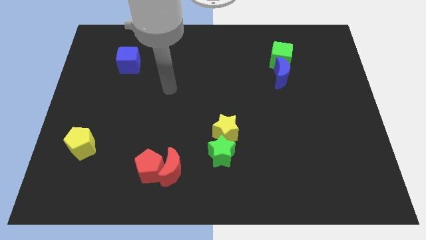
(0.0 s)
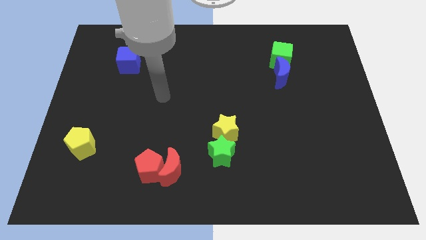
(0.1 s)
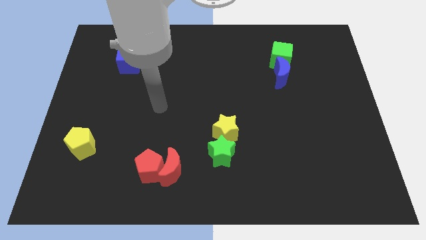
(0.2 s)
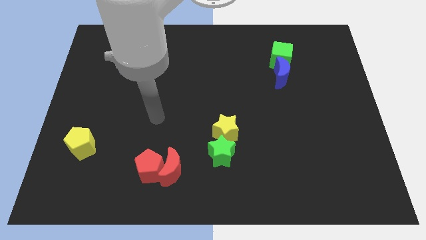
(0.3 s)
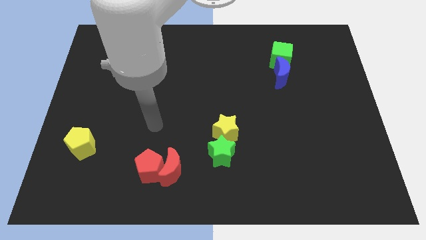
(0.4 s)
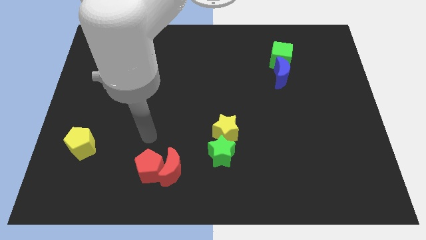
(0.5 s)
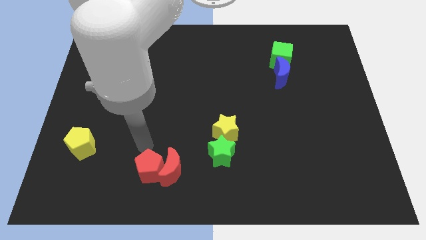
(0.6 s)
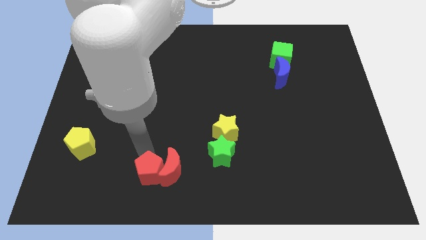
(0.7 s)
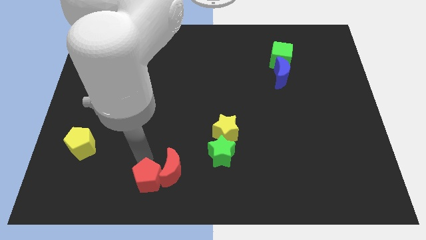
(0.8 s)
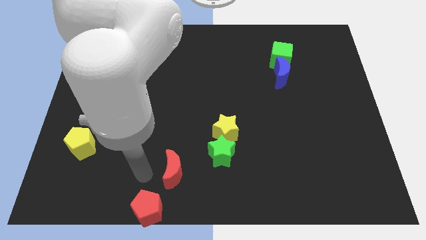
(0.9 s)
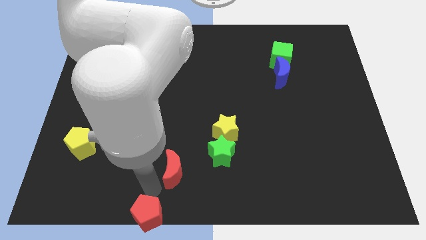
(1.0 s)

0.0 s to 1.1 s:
separate the red moon from the red pentagon

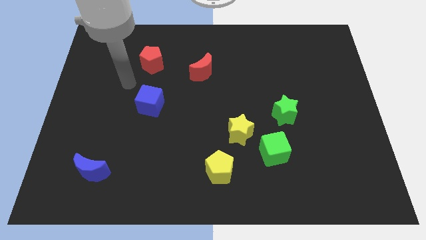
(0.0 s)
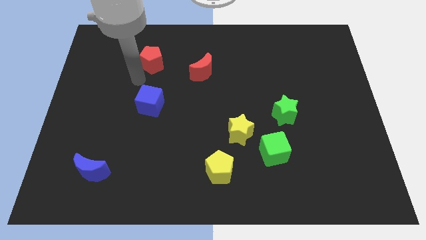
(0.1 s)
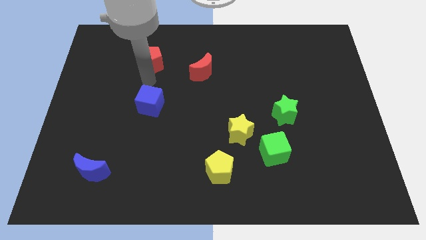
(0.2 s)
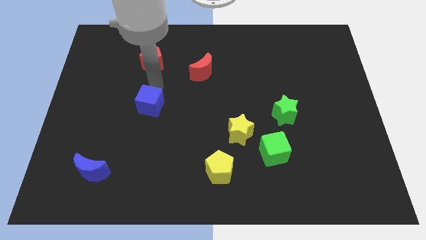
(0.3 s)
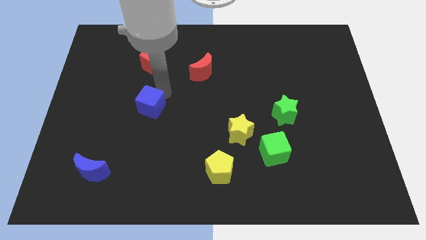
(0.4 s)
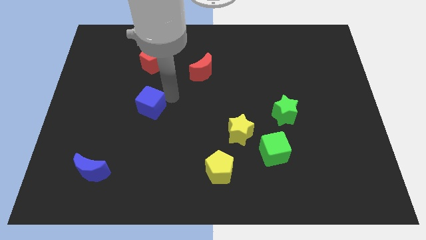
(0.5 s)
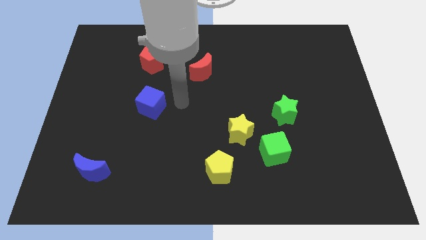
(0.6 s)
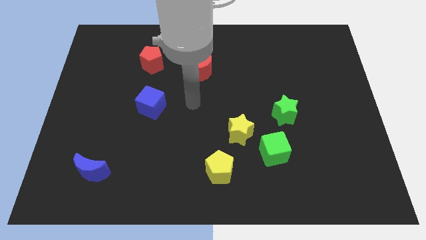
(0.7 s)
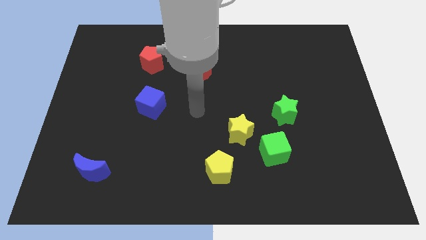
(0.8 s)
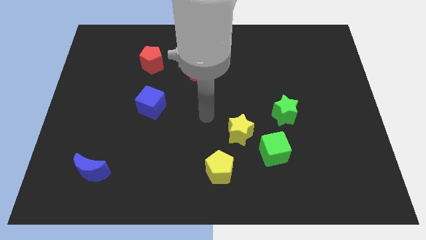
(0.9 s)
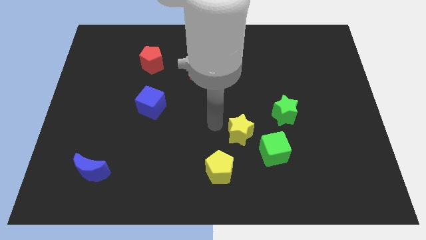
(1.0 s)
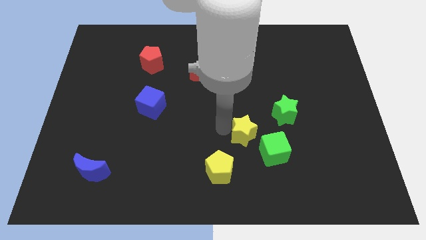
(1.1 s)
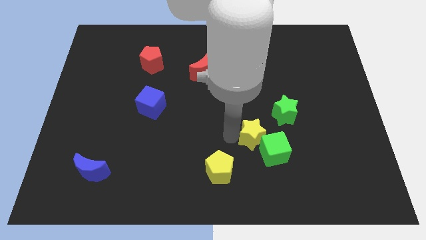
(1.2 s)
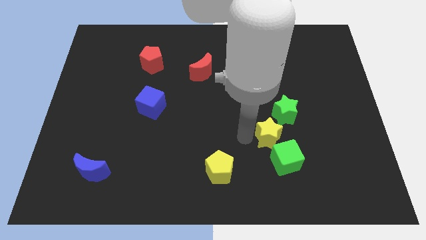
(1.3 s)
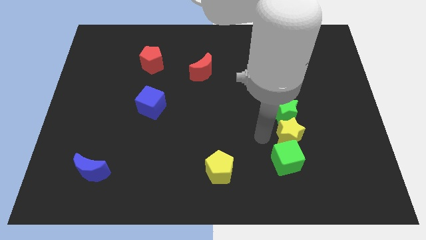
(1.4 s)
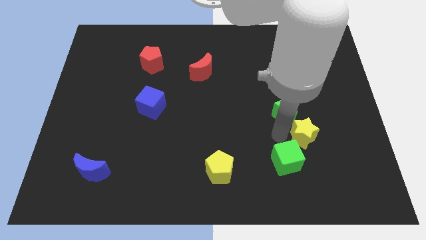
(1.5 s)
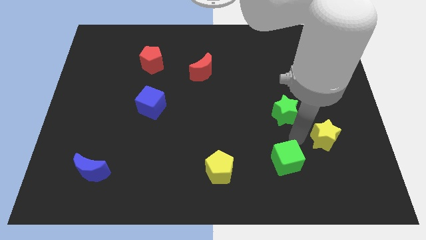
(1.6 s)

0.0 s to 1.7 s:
separate the green cube from the yellow star

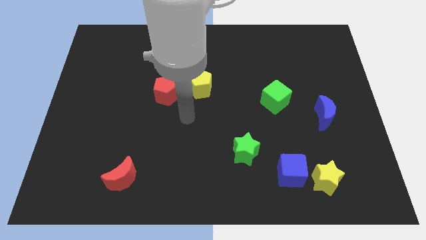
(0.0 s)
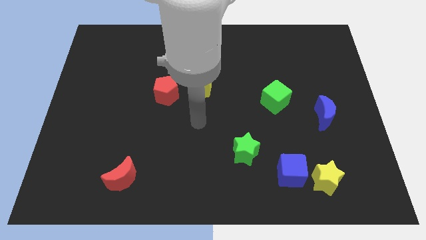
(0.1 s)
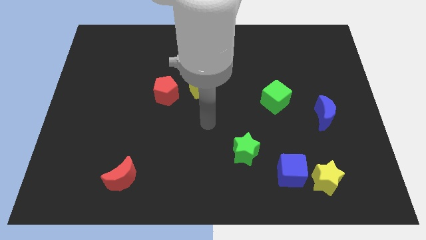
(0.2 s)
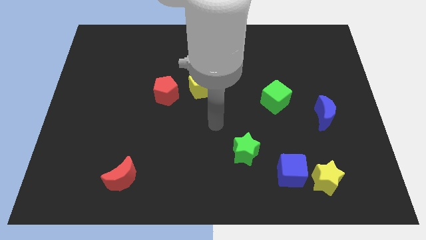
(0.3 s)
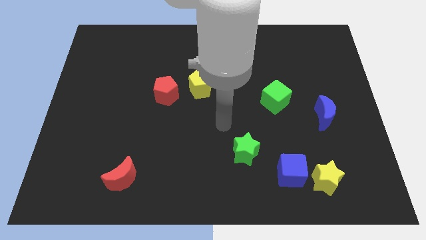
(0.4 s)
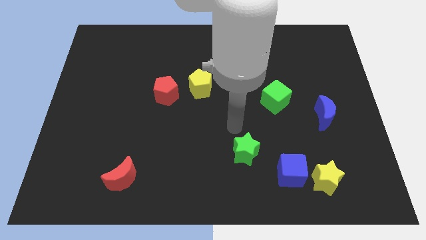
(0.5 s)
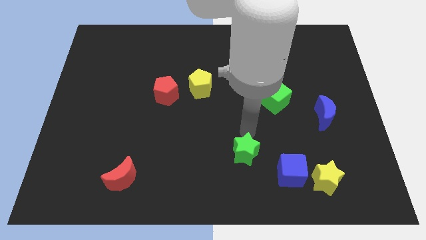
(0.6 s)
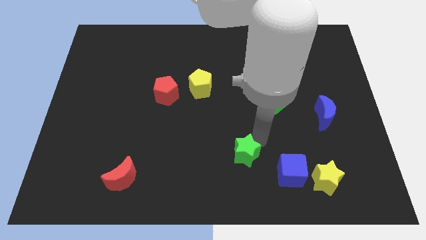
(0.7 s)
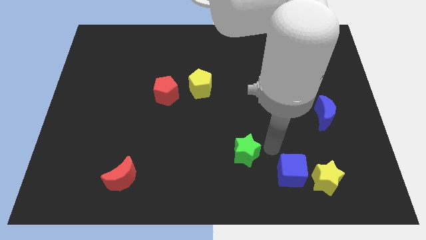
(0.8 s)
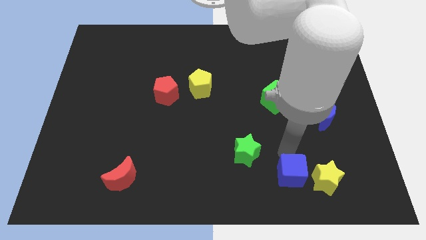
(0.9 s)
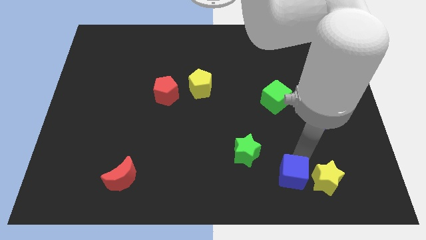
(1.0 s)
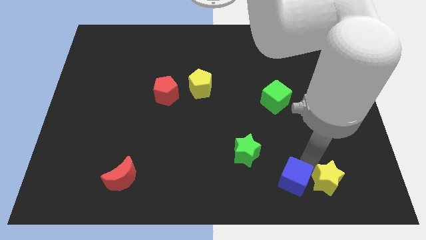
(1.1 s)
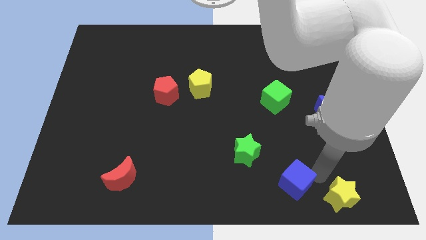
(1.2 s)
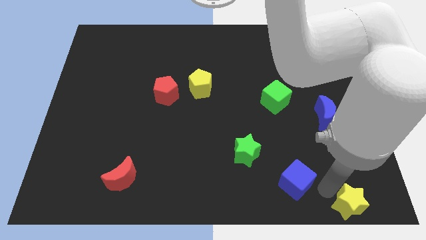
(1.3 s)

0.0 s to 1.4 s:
separate the blue cube from the yellow star

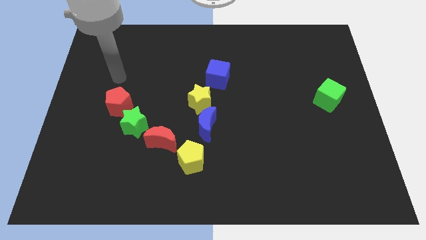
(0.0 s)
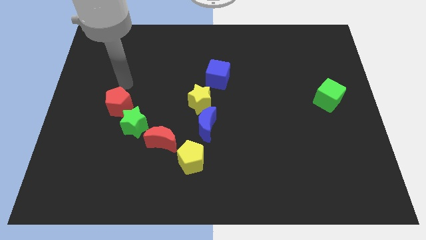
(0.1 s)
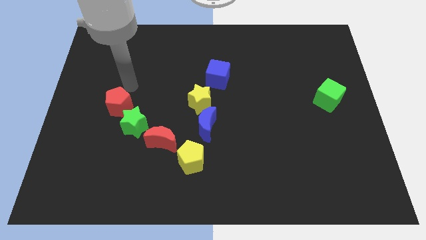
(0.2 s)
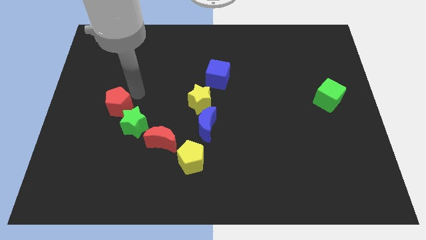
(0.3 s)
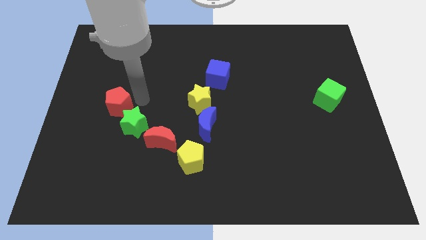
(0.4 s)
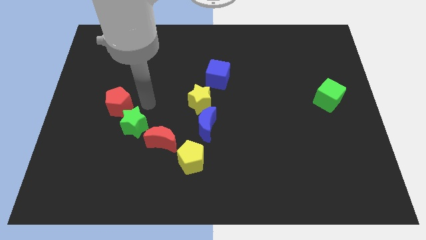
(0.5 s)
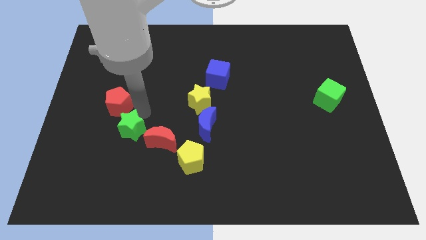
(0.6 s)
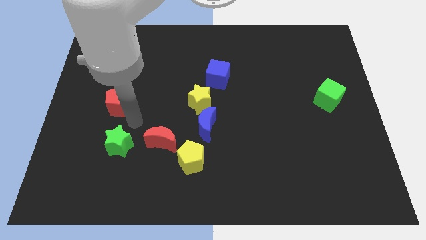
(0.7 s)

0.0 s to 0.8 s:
separate the red pentagon from the green star

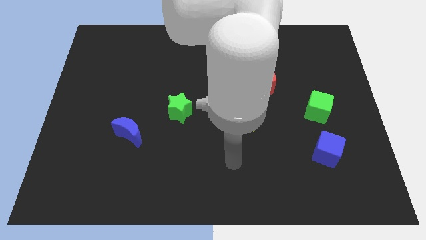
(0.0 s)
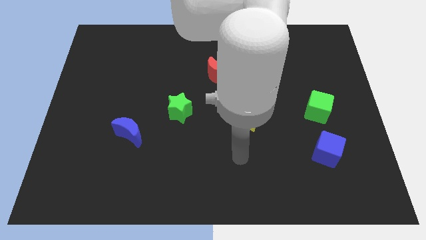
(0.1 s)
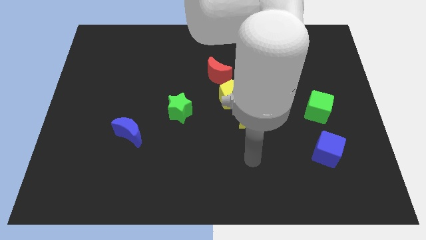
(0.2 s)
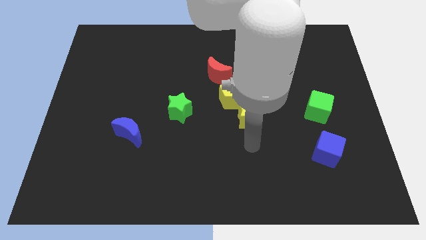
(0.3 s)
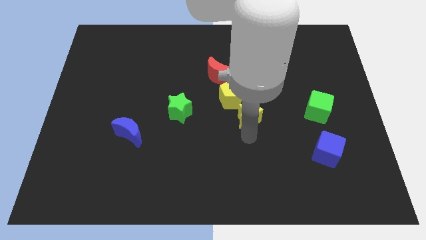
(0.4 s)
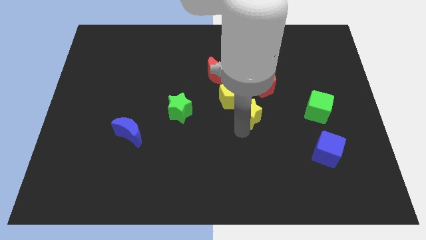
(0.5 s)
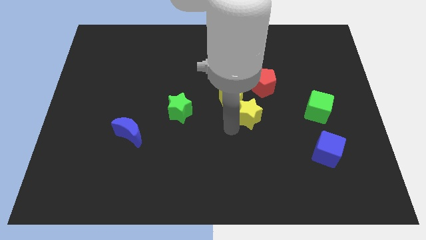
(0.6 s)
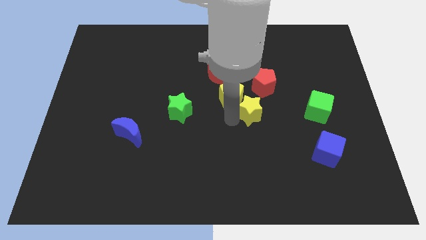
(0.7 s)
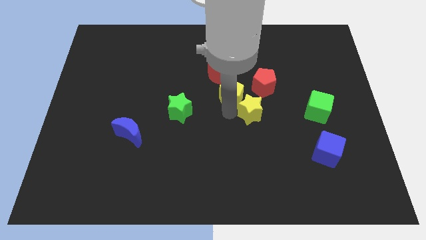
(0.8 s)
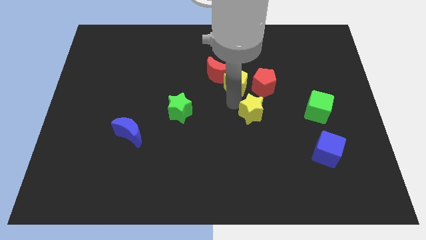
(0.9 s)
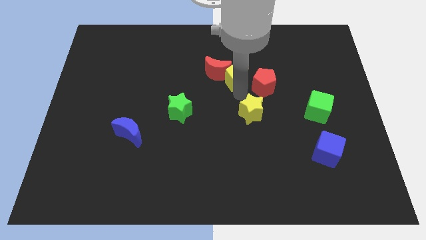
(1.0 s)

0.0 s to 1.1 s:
separate the yellow star from the yellow pentagon

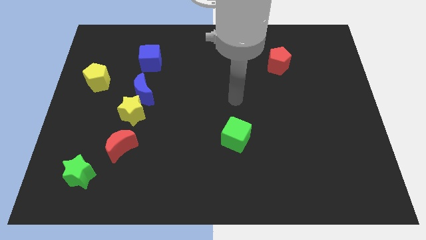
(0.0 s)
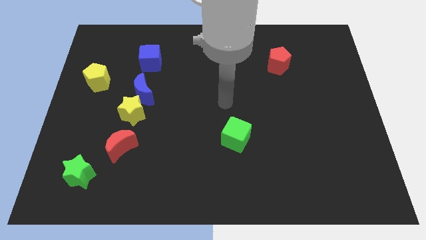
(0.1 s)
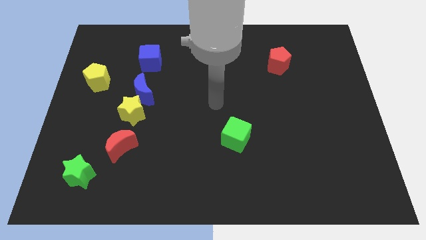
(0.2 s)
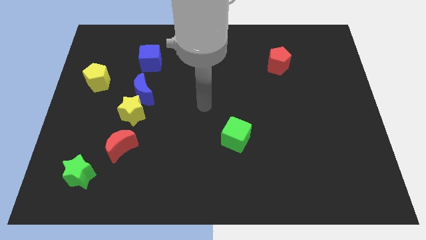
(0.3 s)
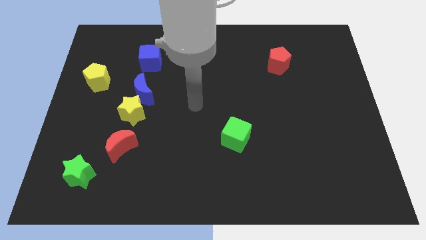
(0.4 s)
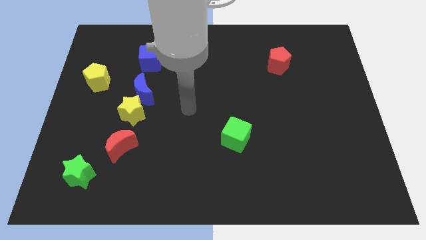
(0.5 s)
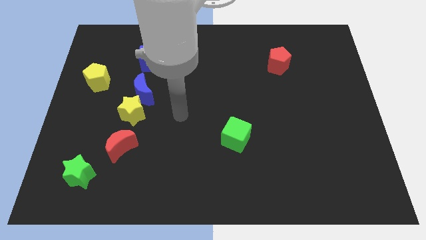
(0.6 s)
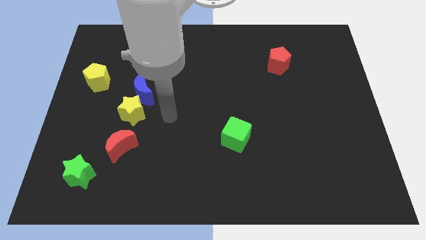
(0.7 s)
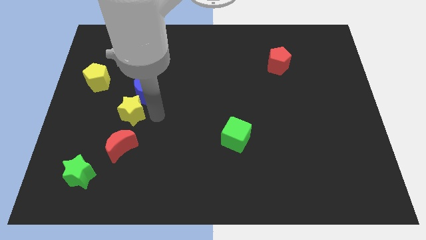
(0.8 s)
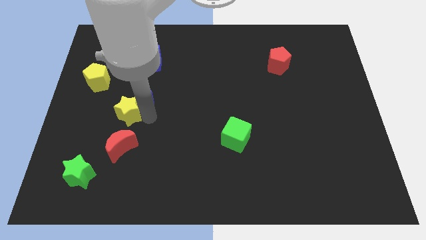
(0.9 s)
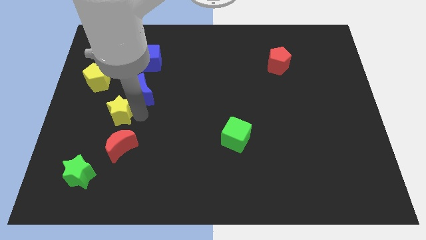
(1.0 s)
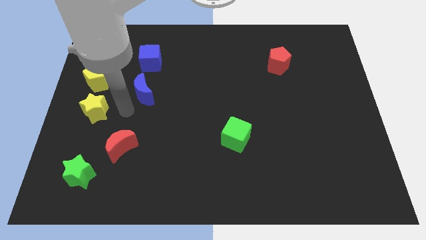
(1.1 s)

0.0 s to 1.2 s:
pull the blue moon apart from the yellow star

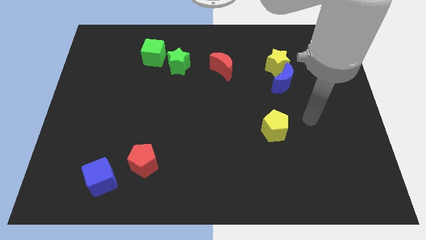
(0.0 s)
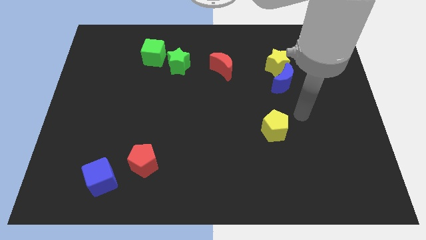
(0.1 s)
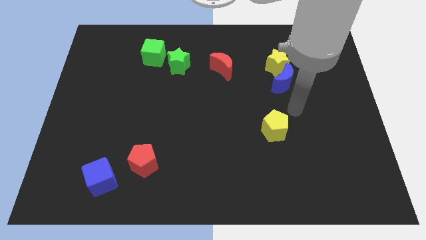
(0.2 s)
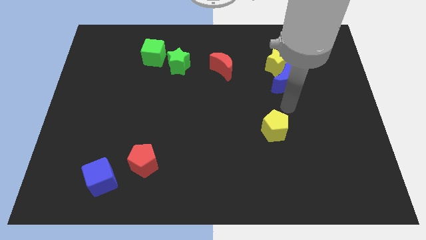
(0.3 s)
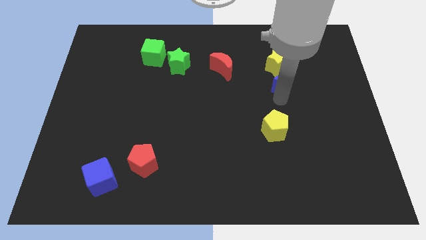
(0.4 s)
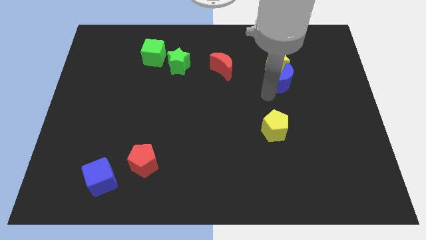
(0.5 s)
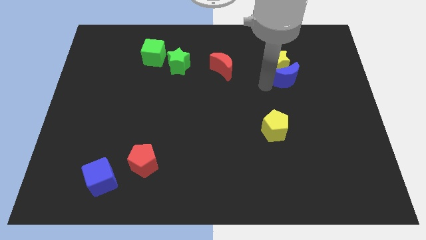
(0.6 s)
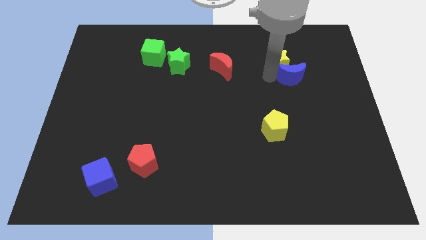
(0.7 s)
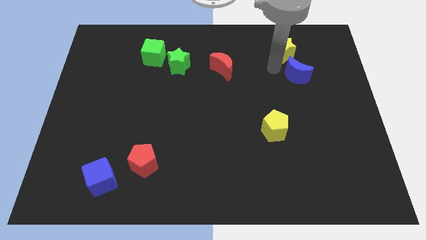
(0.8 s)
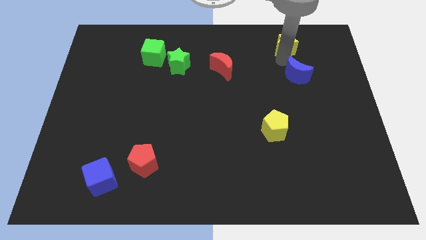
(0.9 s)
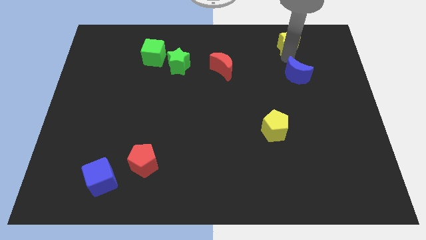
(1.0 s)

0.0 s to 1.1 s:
separate the blue moon from the yellow star

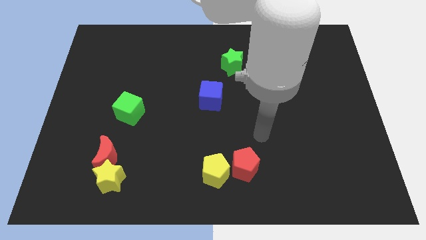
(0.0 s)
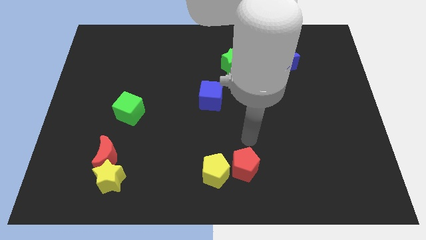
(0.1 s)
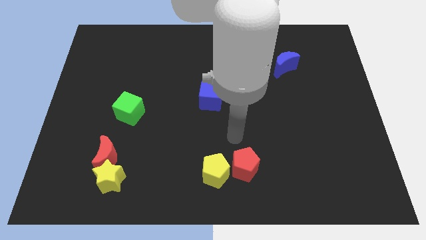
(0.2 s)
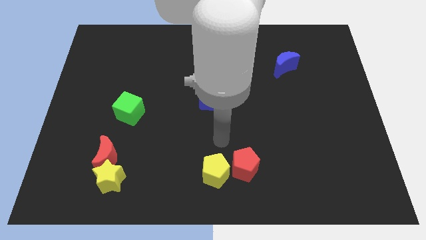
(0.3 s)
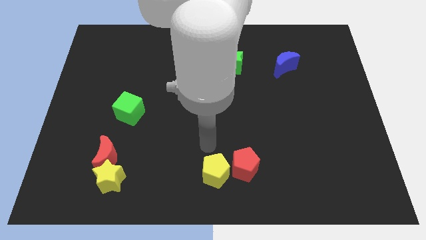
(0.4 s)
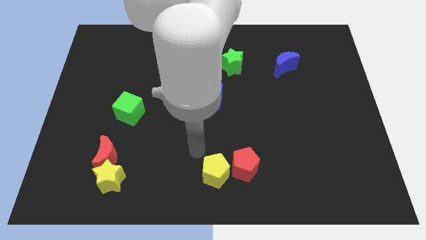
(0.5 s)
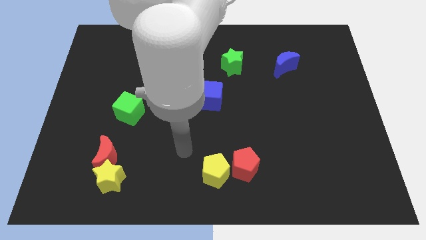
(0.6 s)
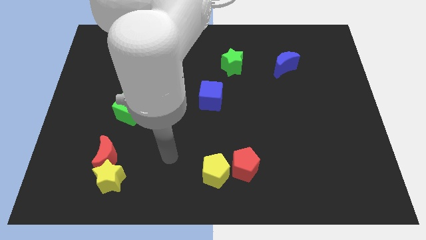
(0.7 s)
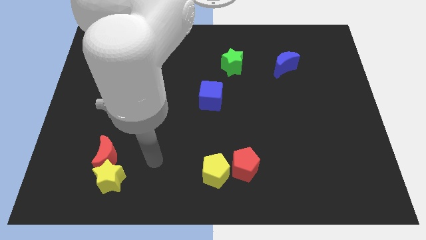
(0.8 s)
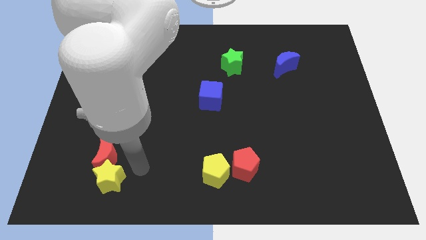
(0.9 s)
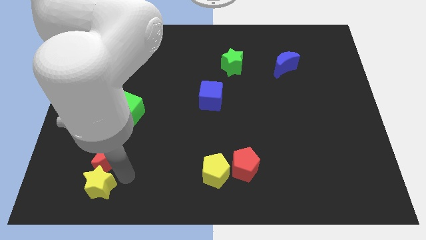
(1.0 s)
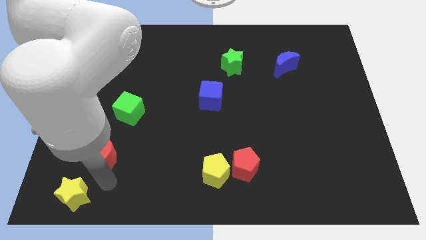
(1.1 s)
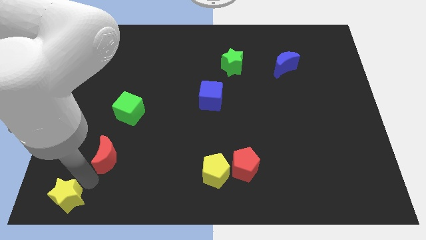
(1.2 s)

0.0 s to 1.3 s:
separate the red moon from the yellow star
